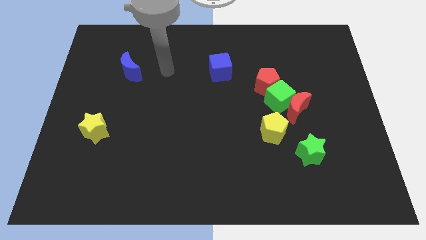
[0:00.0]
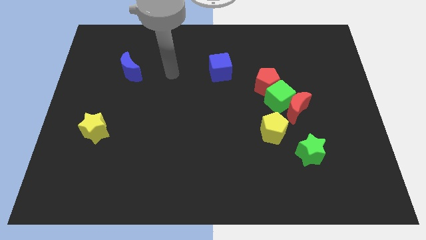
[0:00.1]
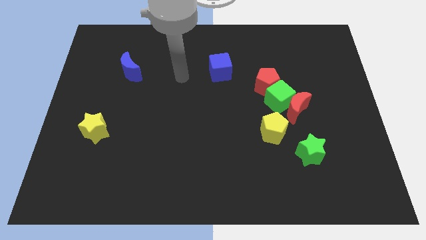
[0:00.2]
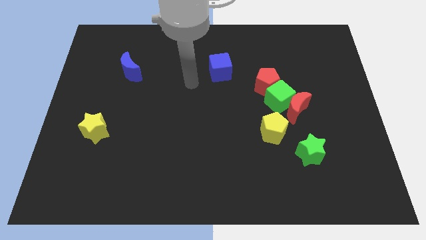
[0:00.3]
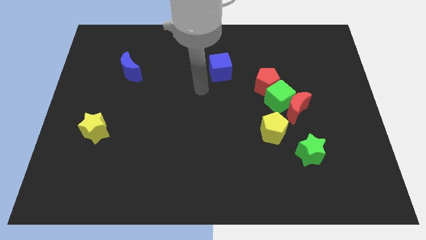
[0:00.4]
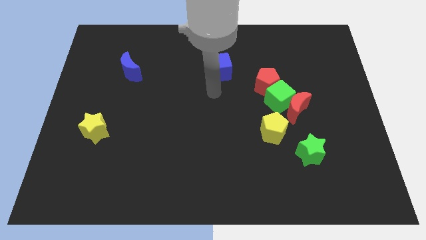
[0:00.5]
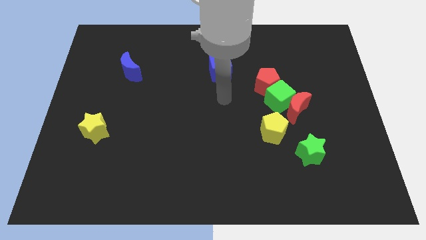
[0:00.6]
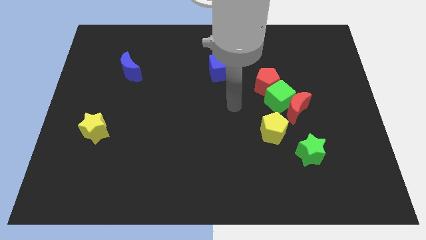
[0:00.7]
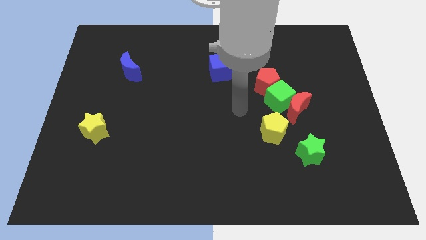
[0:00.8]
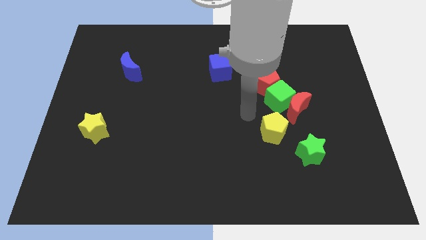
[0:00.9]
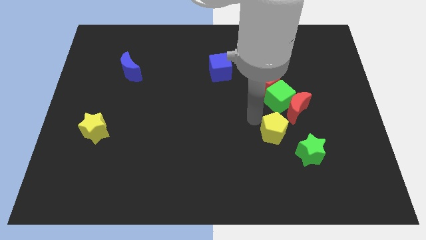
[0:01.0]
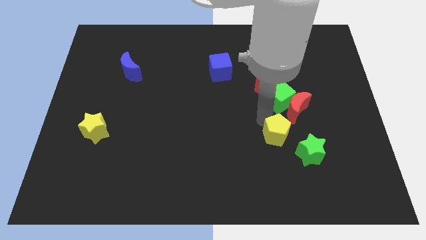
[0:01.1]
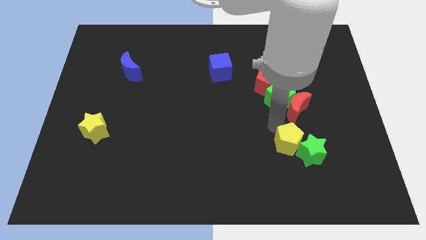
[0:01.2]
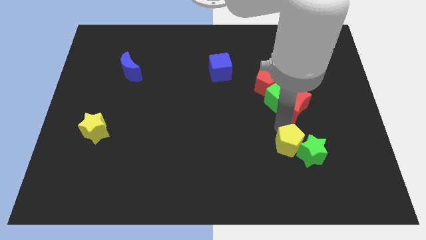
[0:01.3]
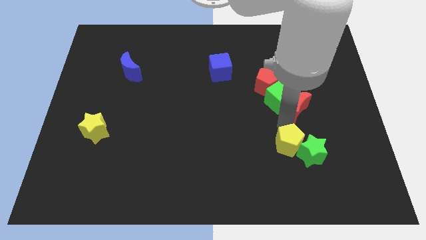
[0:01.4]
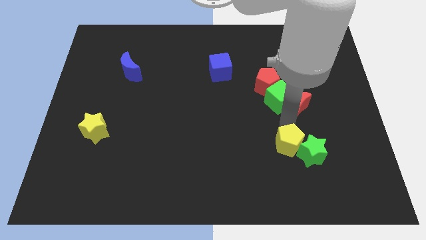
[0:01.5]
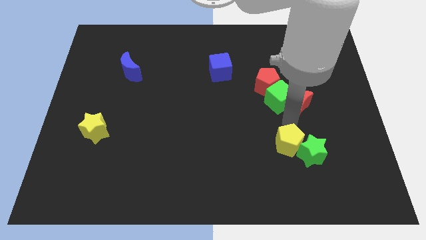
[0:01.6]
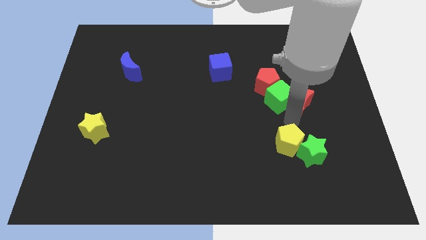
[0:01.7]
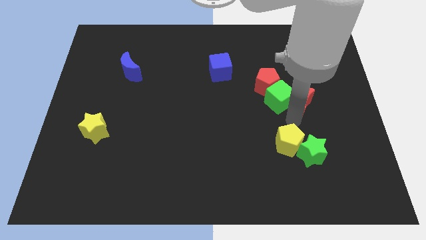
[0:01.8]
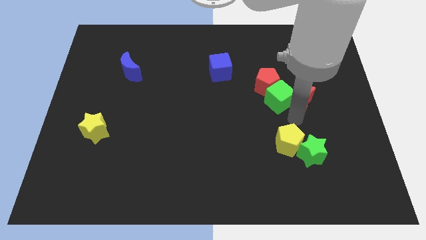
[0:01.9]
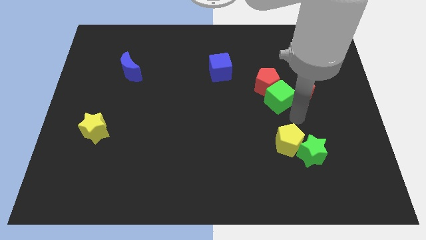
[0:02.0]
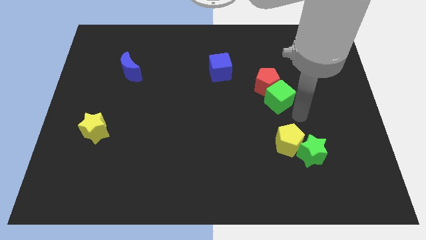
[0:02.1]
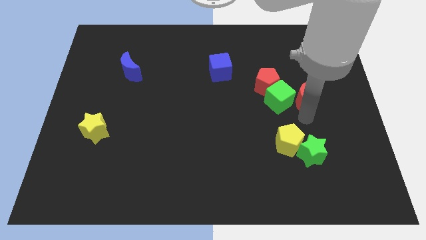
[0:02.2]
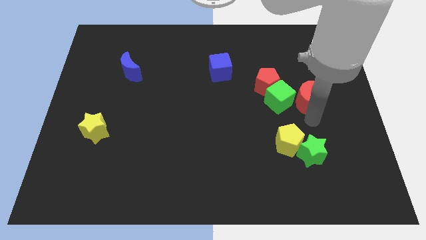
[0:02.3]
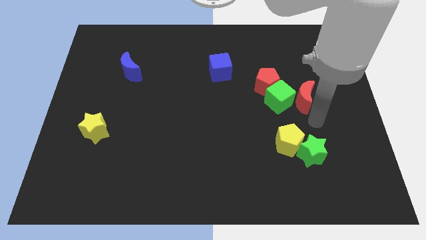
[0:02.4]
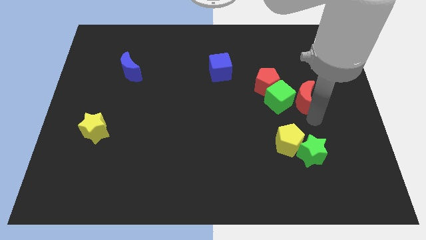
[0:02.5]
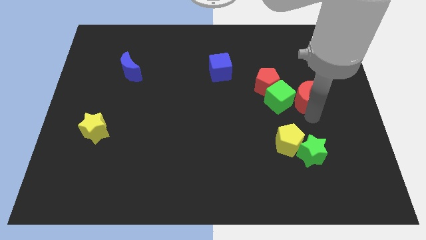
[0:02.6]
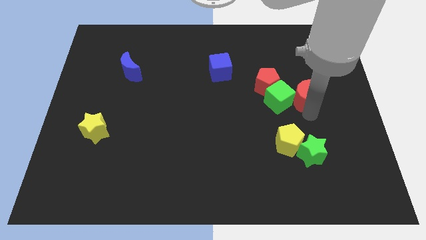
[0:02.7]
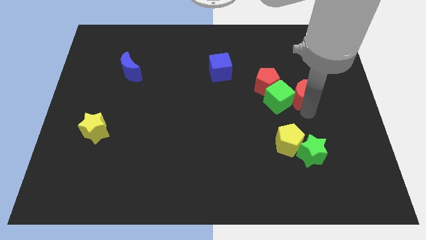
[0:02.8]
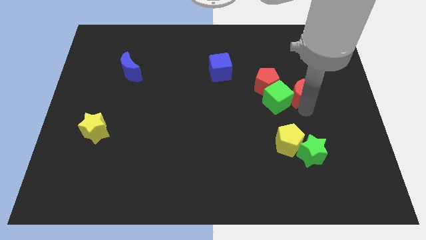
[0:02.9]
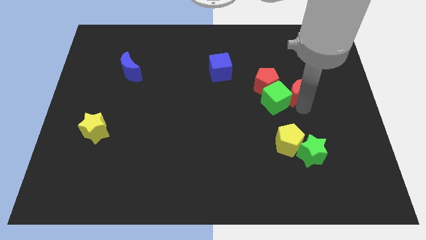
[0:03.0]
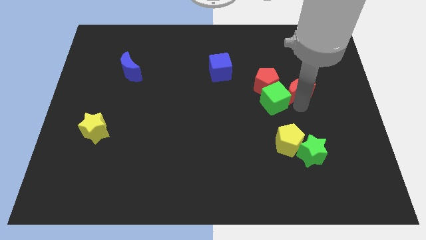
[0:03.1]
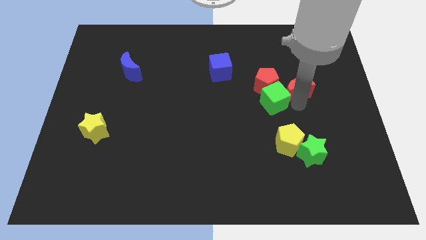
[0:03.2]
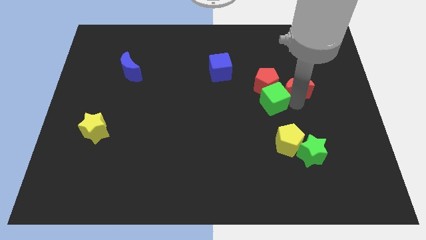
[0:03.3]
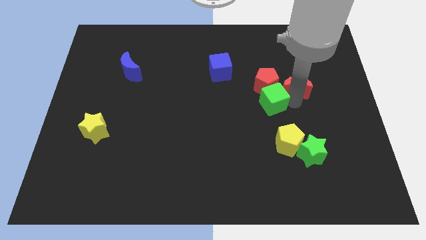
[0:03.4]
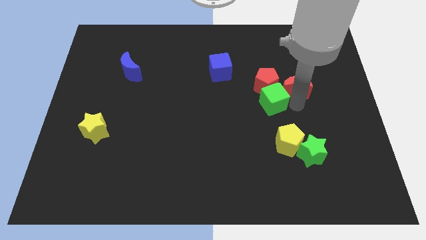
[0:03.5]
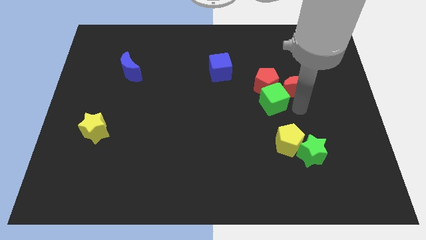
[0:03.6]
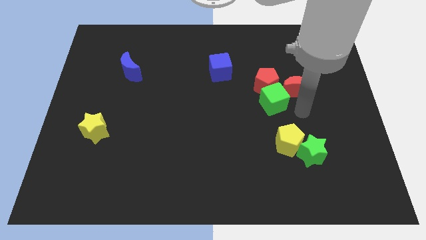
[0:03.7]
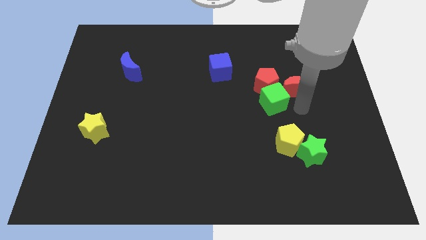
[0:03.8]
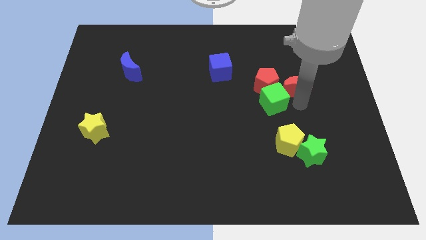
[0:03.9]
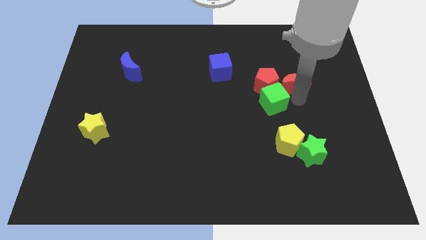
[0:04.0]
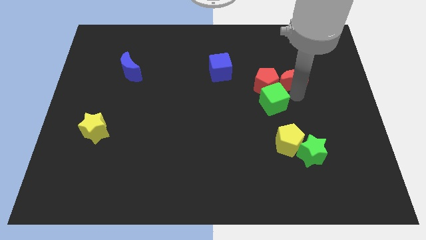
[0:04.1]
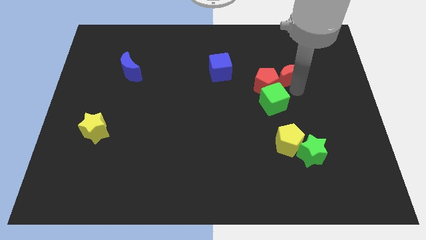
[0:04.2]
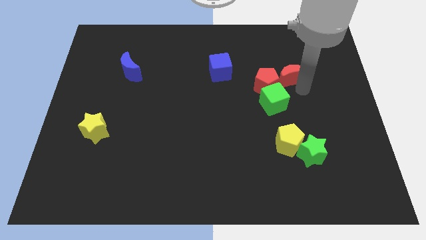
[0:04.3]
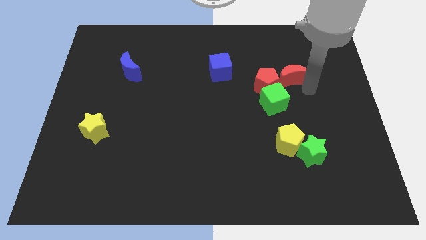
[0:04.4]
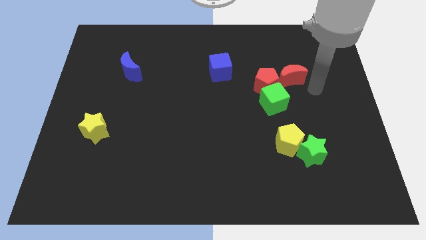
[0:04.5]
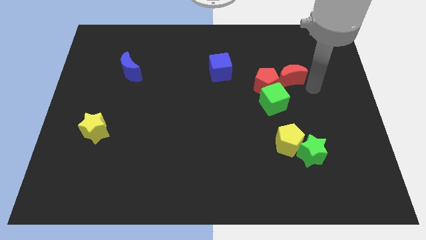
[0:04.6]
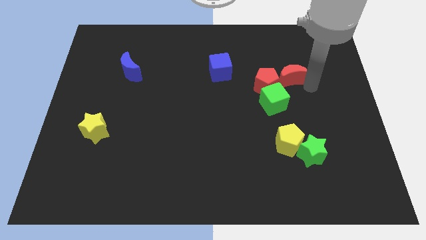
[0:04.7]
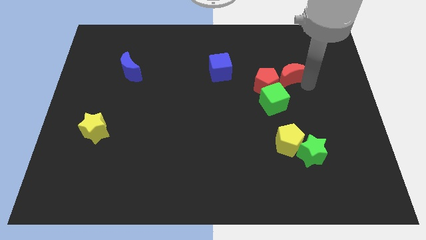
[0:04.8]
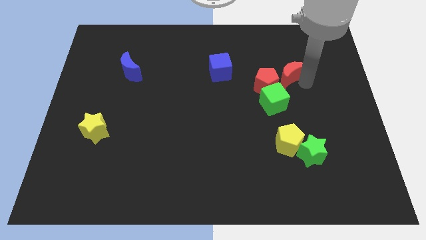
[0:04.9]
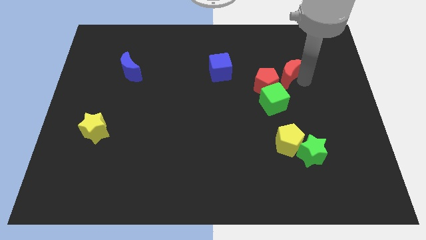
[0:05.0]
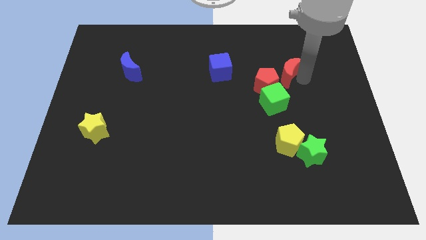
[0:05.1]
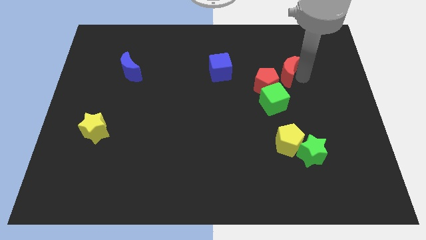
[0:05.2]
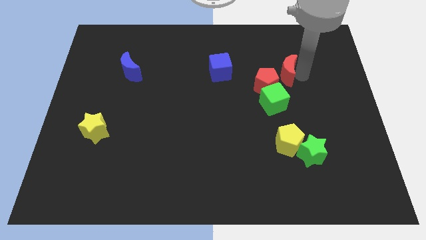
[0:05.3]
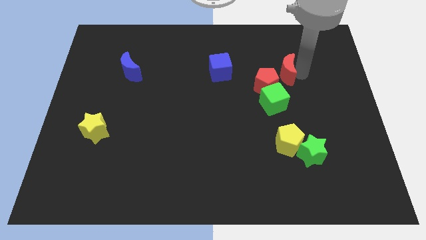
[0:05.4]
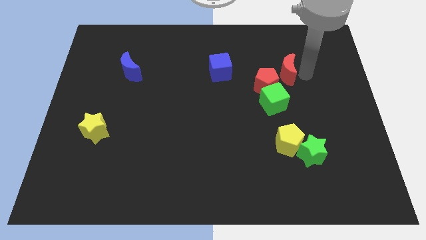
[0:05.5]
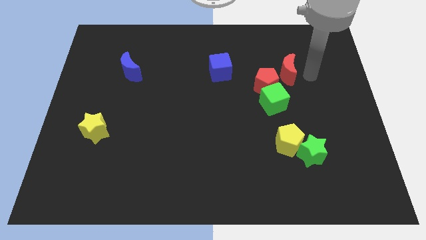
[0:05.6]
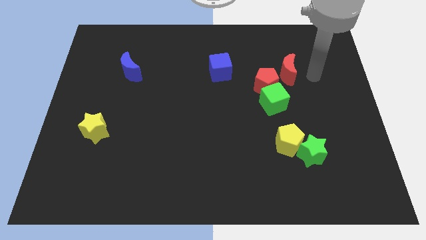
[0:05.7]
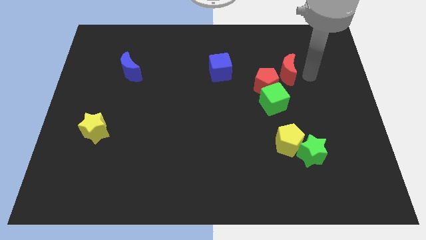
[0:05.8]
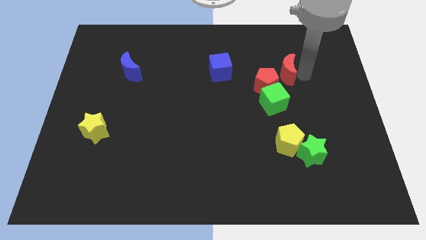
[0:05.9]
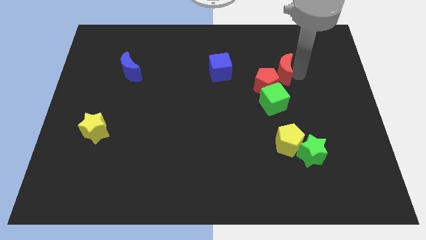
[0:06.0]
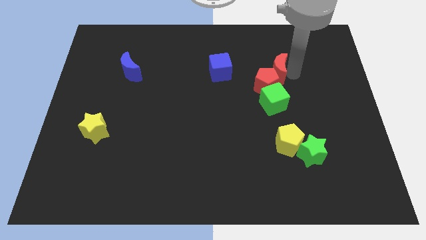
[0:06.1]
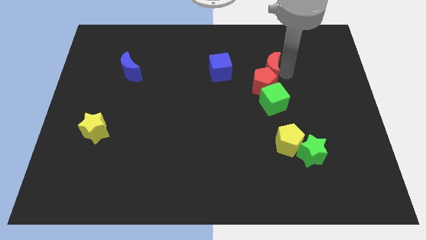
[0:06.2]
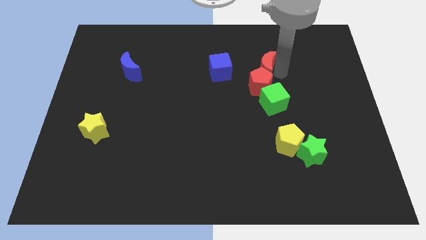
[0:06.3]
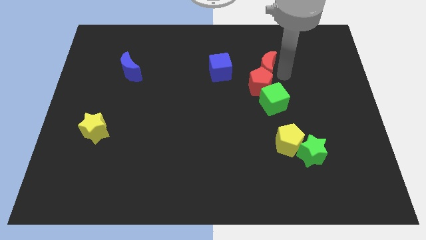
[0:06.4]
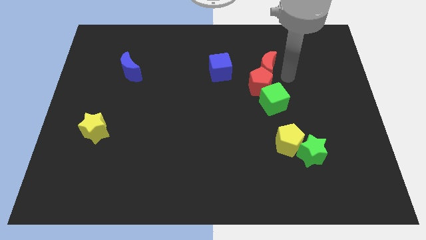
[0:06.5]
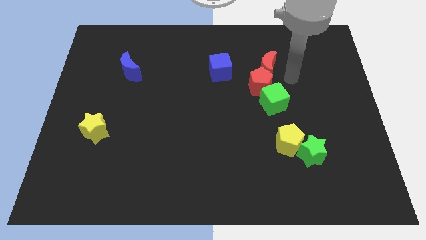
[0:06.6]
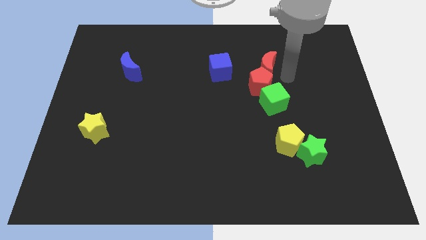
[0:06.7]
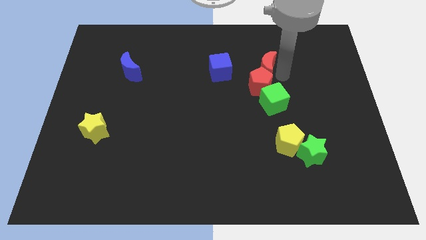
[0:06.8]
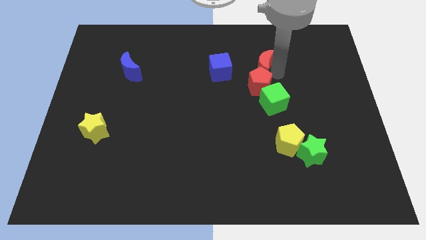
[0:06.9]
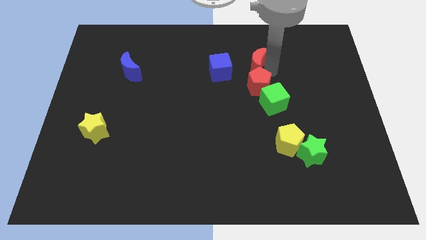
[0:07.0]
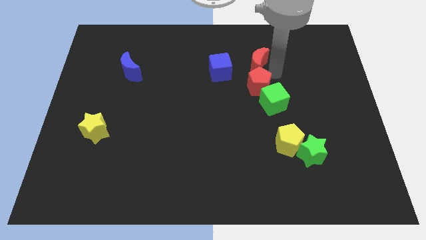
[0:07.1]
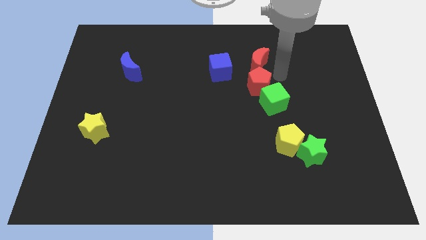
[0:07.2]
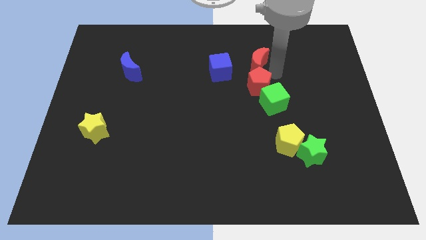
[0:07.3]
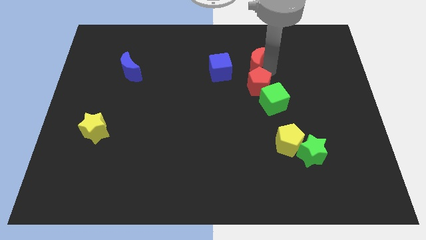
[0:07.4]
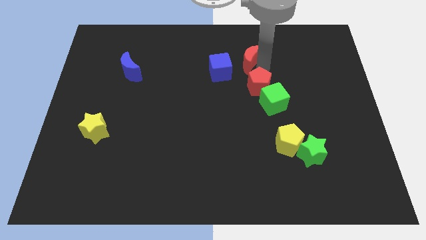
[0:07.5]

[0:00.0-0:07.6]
slide the red moon diagonally up and to the right of the blue cube
